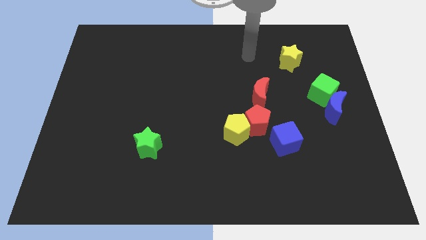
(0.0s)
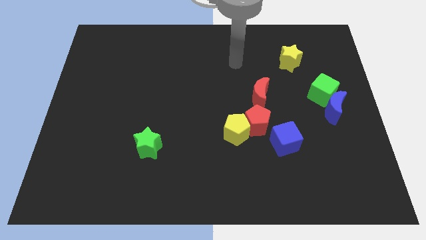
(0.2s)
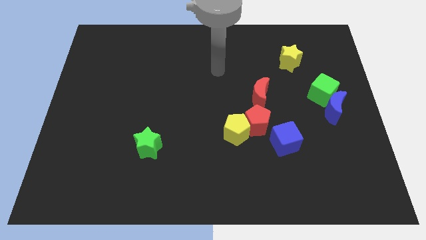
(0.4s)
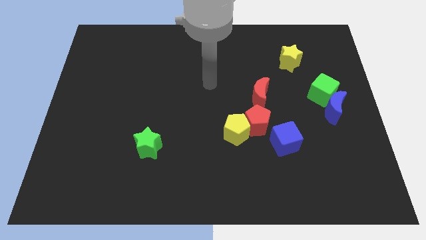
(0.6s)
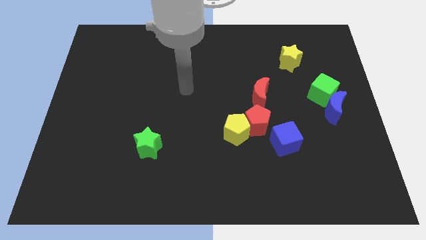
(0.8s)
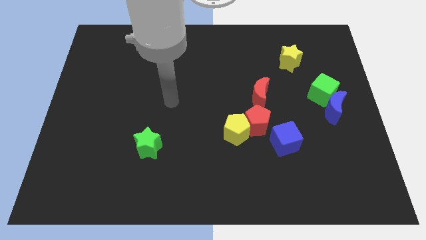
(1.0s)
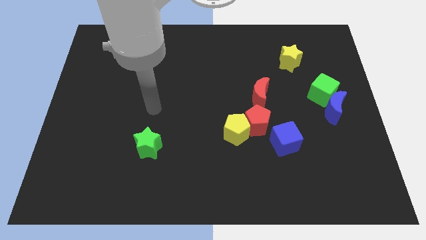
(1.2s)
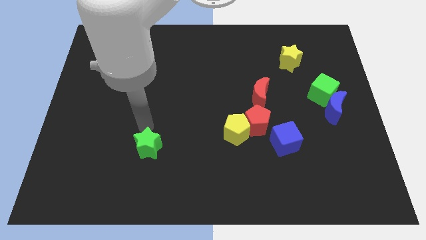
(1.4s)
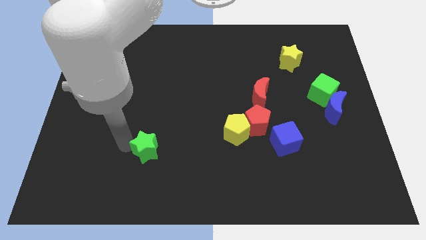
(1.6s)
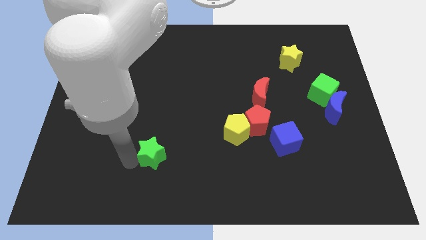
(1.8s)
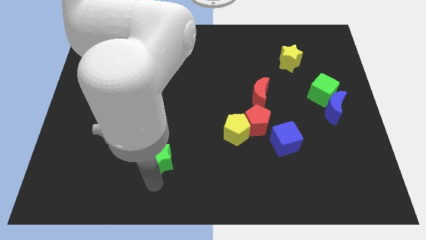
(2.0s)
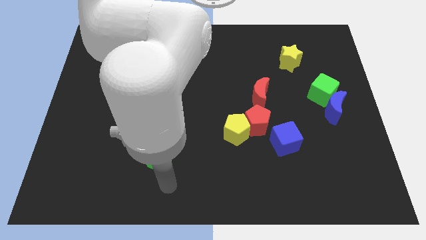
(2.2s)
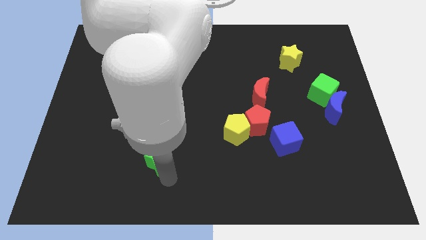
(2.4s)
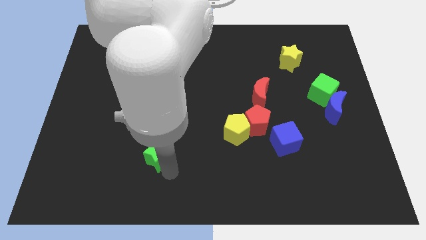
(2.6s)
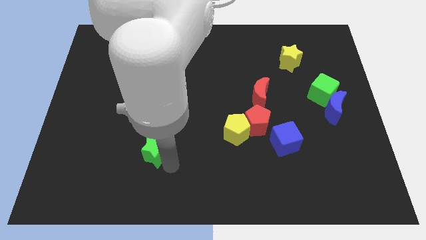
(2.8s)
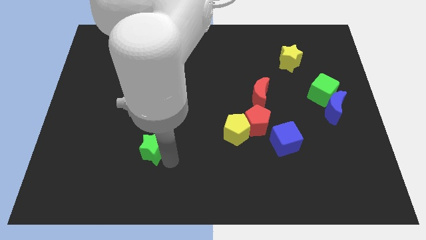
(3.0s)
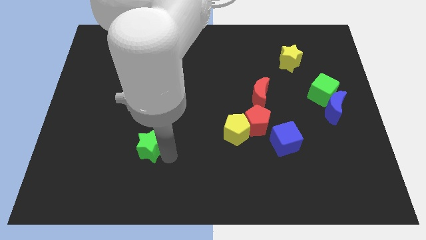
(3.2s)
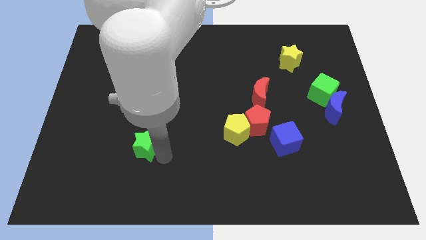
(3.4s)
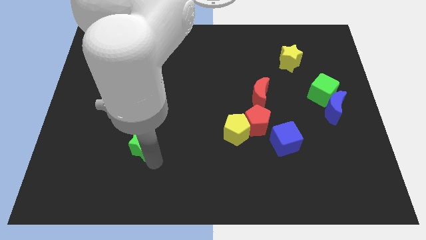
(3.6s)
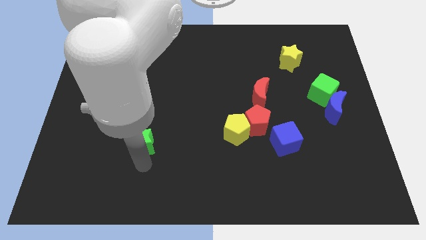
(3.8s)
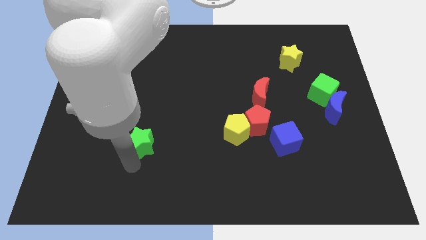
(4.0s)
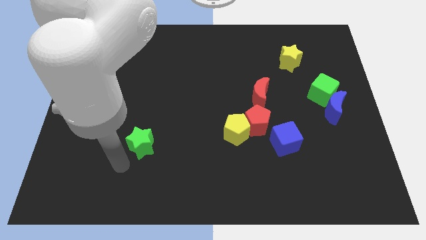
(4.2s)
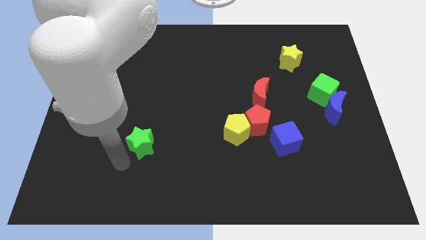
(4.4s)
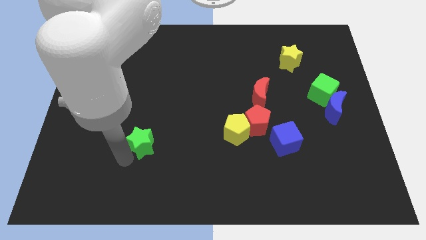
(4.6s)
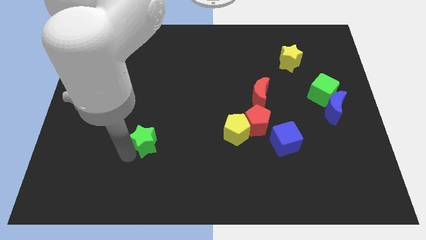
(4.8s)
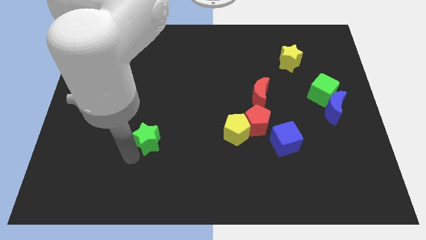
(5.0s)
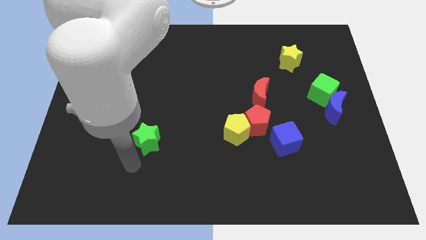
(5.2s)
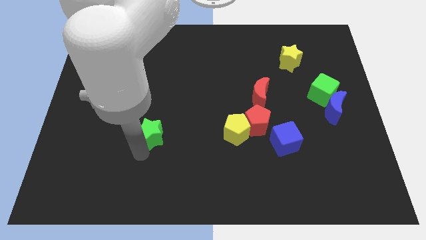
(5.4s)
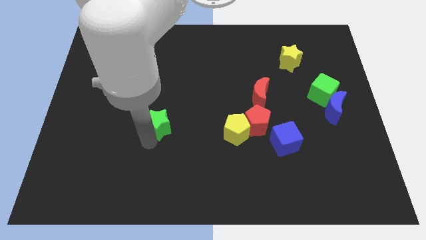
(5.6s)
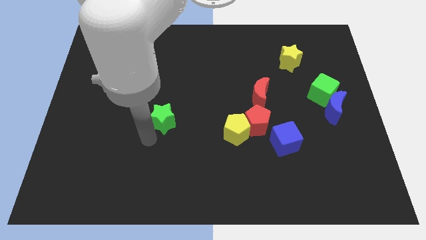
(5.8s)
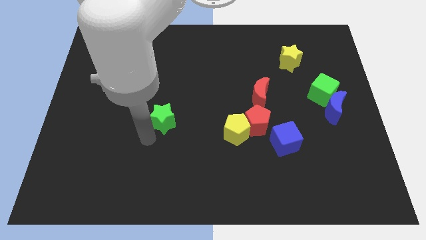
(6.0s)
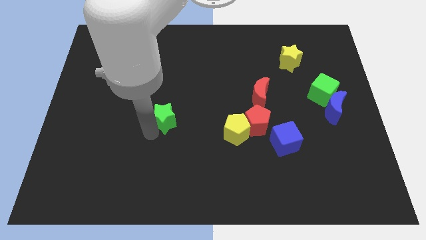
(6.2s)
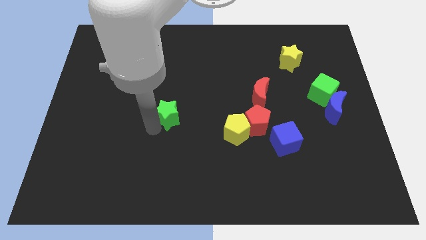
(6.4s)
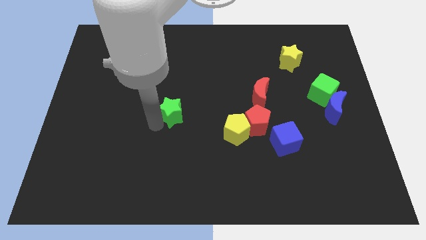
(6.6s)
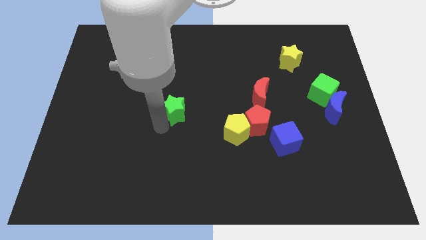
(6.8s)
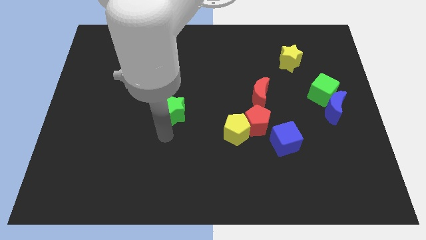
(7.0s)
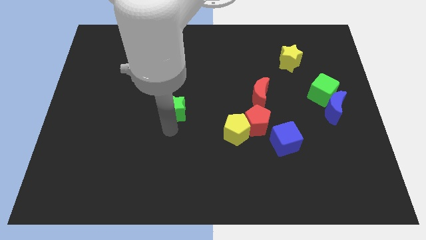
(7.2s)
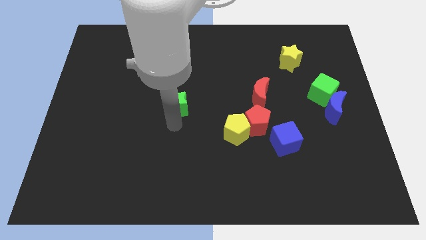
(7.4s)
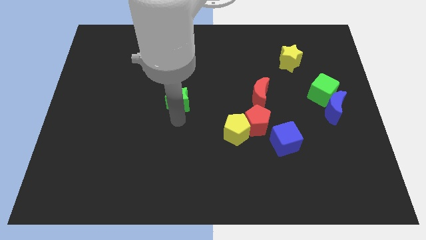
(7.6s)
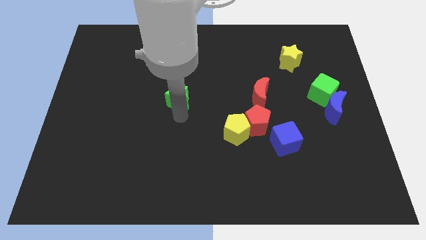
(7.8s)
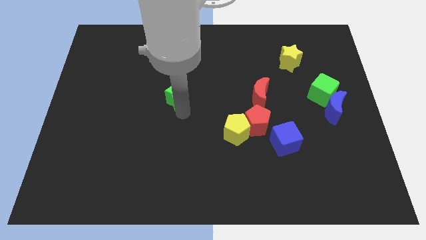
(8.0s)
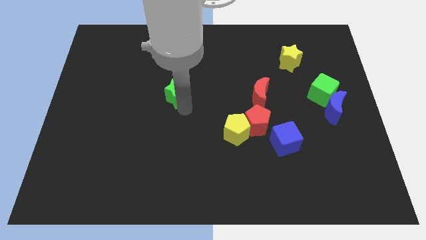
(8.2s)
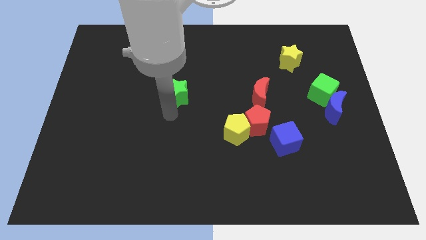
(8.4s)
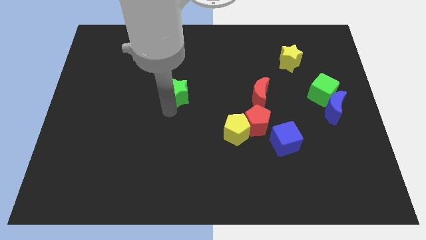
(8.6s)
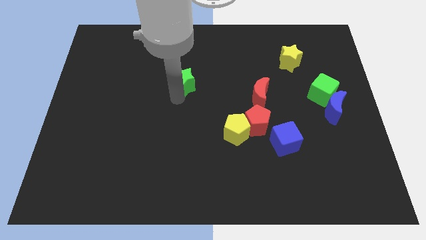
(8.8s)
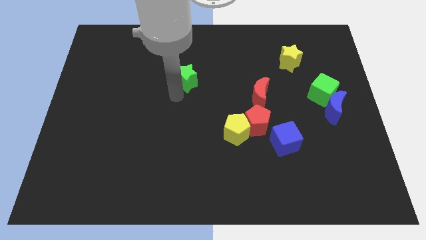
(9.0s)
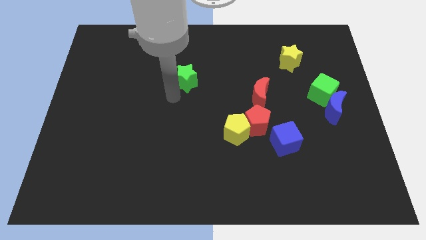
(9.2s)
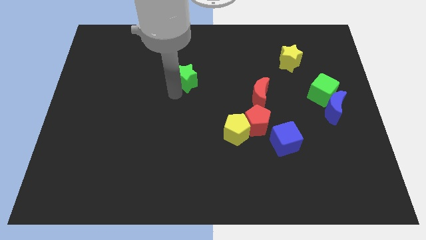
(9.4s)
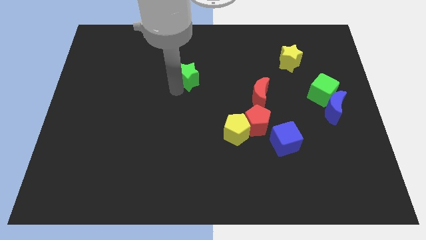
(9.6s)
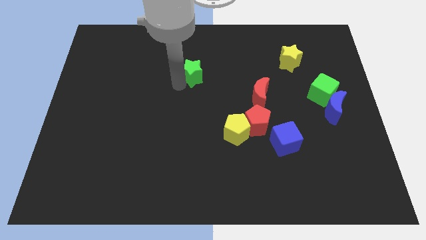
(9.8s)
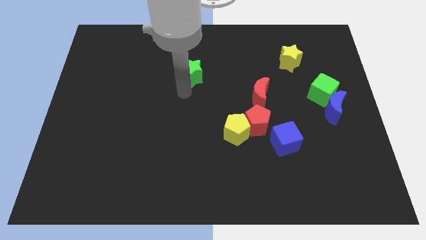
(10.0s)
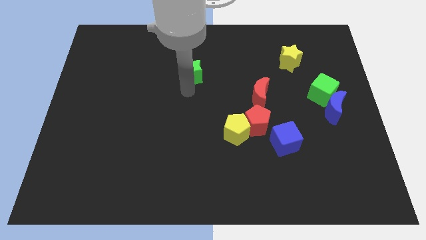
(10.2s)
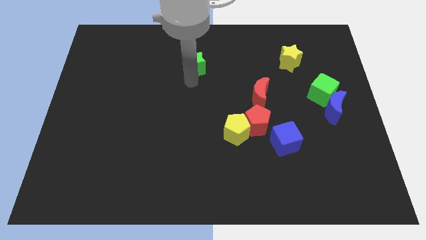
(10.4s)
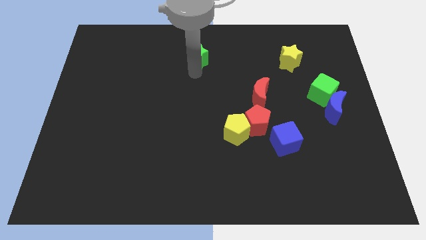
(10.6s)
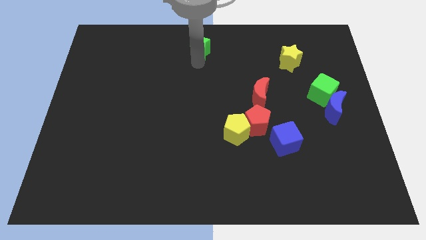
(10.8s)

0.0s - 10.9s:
move the green star to the top

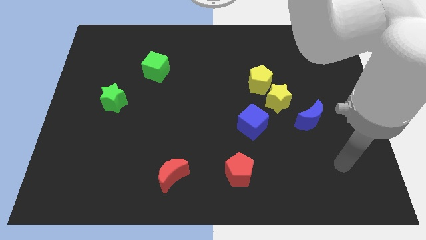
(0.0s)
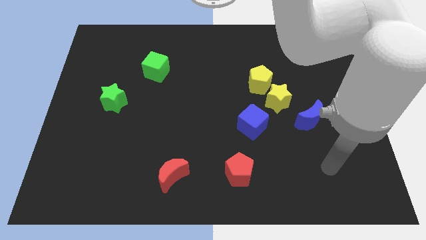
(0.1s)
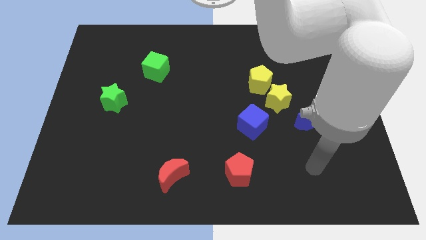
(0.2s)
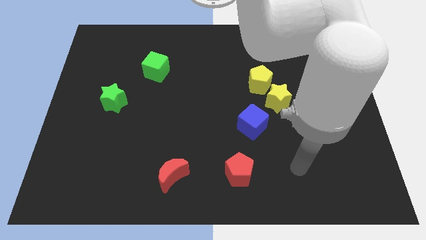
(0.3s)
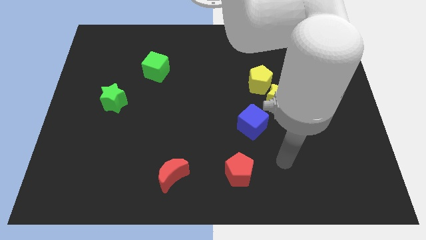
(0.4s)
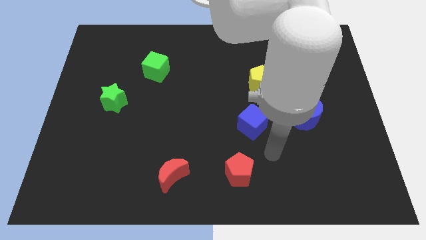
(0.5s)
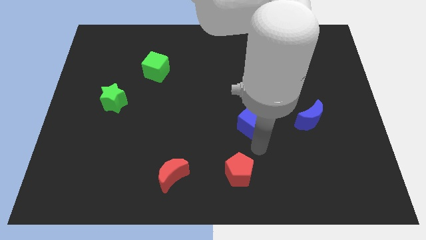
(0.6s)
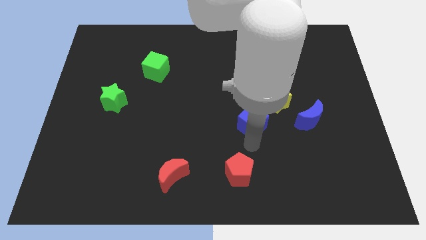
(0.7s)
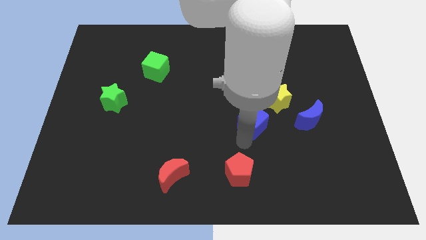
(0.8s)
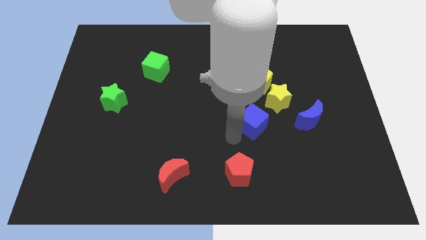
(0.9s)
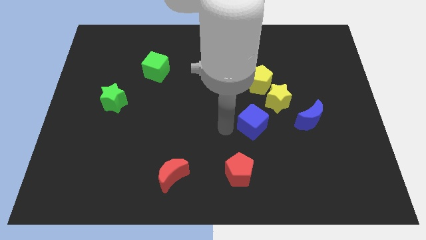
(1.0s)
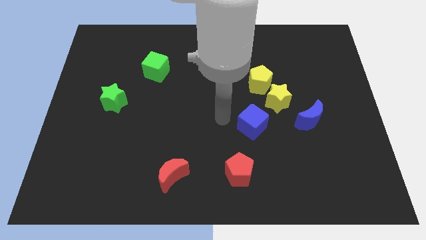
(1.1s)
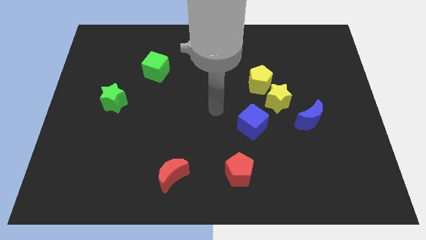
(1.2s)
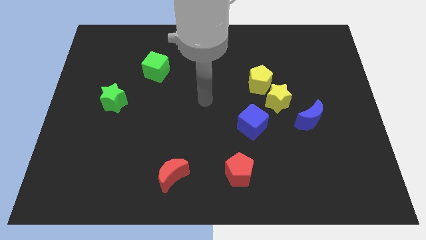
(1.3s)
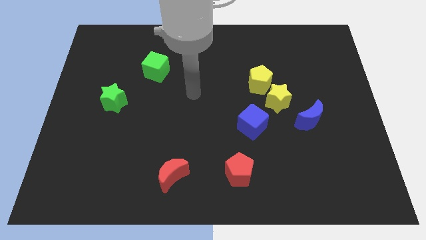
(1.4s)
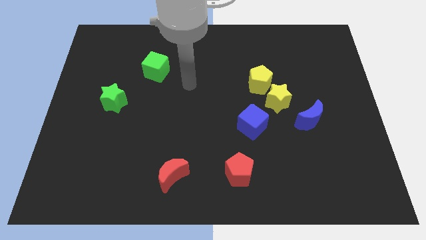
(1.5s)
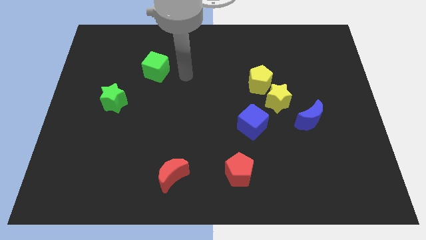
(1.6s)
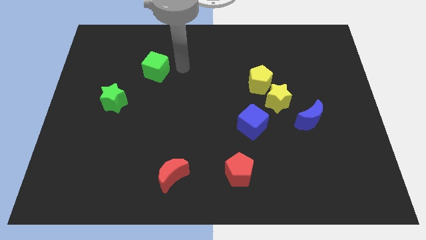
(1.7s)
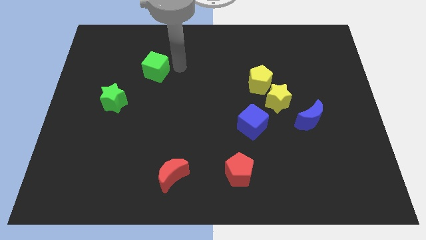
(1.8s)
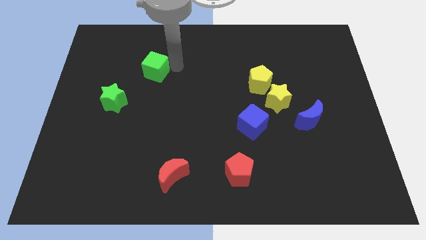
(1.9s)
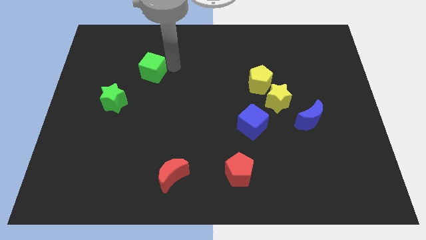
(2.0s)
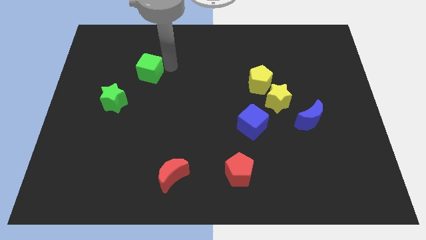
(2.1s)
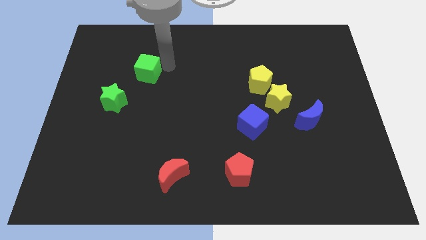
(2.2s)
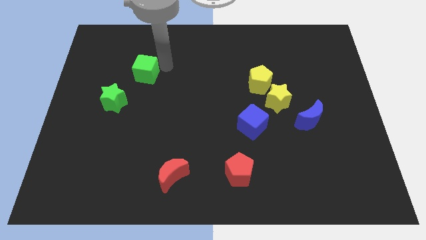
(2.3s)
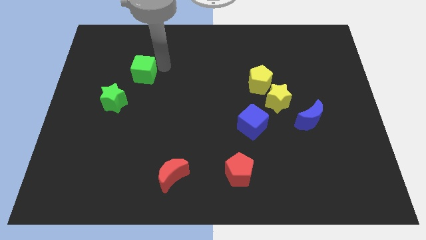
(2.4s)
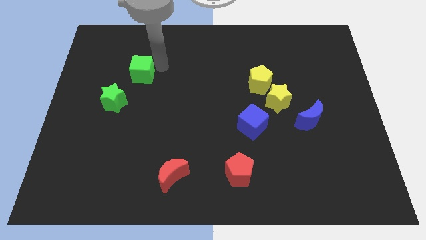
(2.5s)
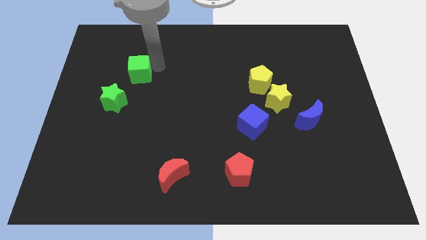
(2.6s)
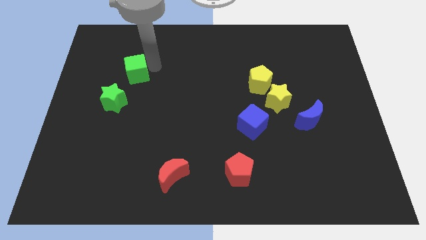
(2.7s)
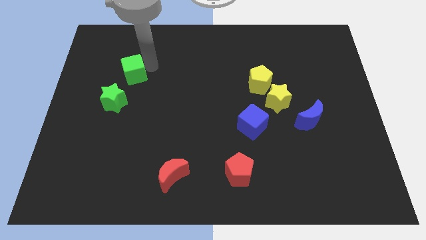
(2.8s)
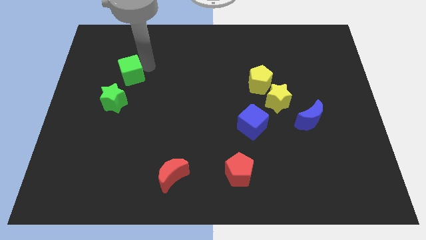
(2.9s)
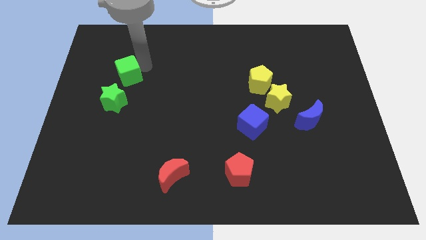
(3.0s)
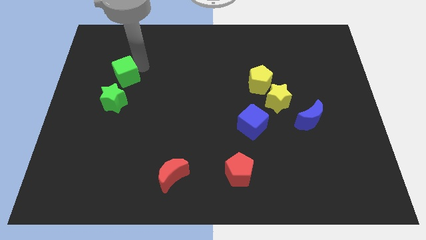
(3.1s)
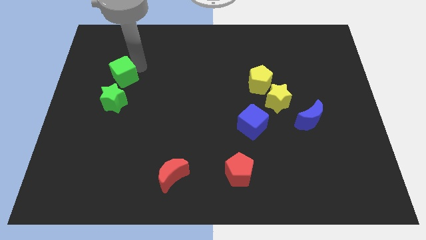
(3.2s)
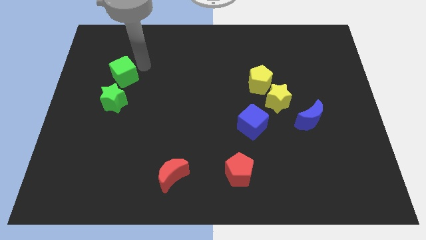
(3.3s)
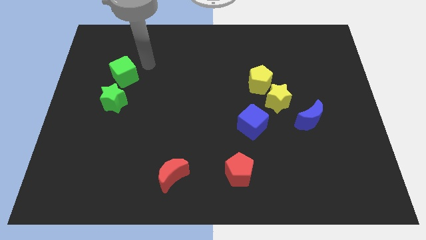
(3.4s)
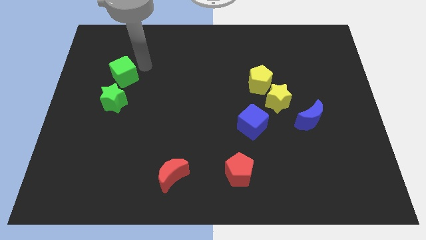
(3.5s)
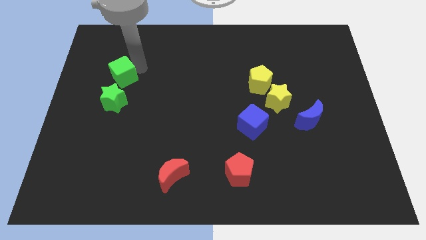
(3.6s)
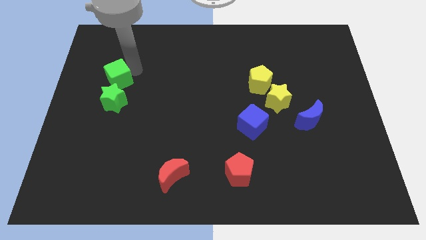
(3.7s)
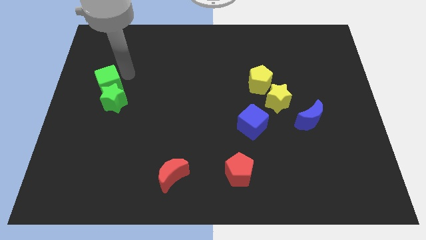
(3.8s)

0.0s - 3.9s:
slide the green cube to the left side
